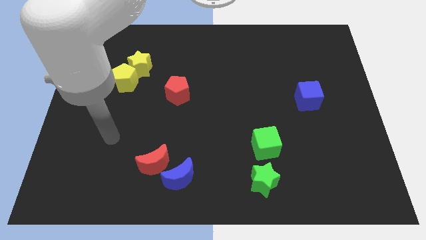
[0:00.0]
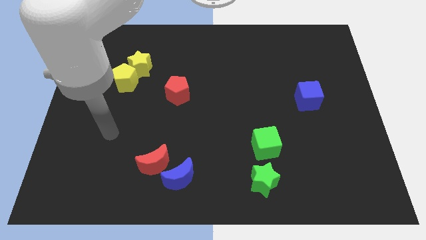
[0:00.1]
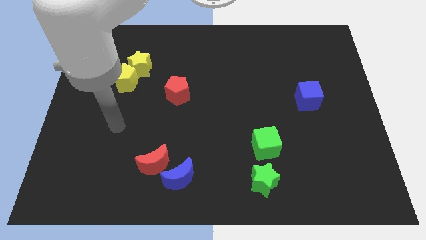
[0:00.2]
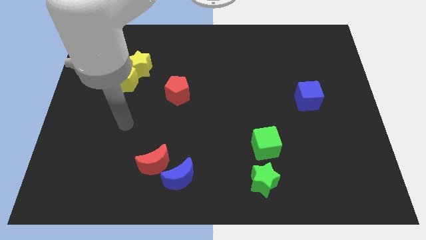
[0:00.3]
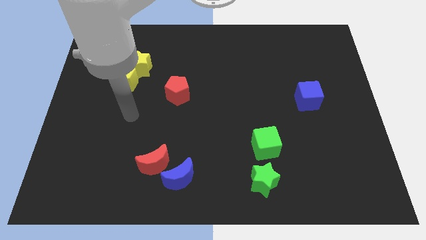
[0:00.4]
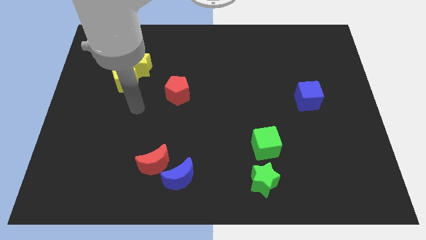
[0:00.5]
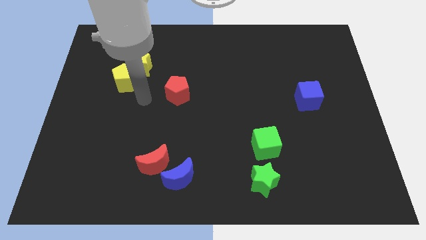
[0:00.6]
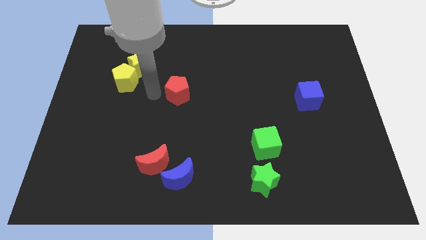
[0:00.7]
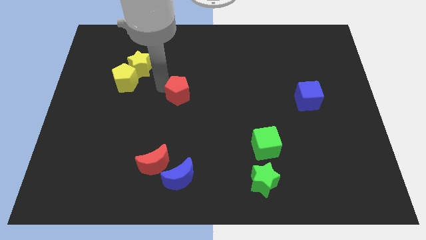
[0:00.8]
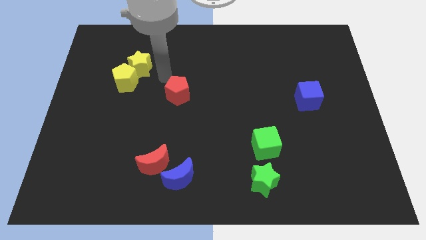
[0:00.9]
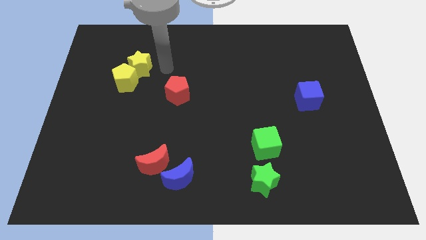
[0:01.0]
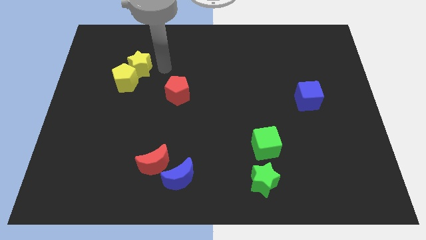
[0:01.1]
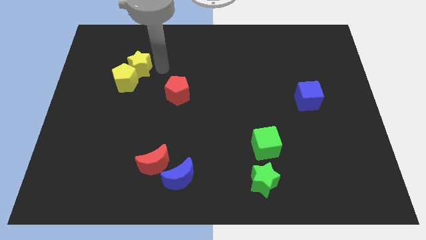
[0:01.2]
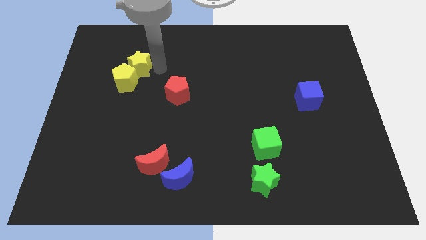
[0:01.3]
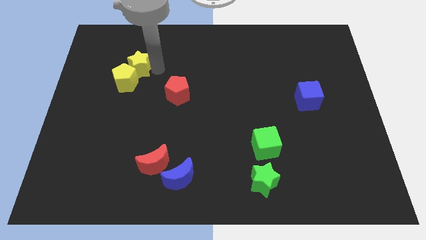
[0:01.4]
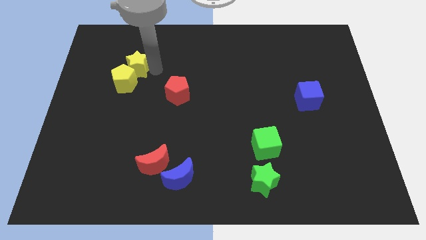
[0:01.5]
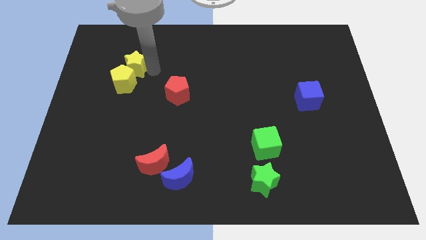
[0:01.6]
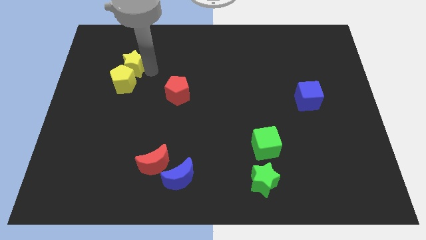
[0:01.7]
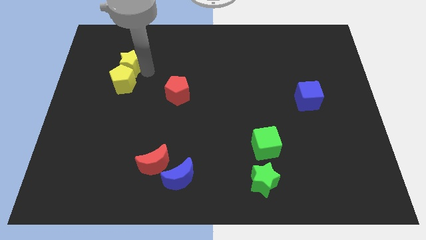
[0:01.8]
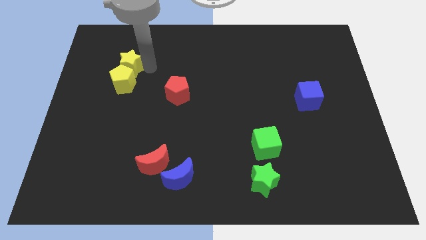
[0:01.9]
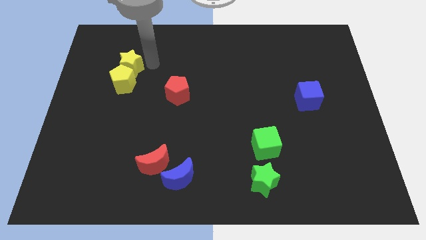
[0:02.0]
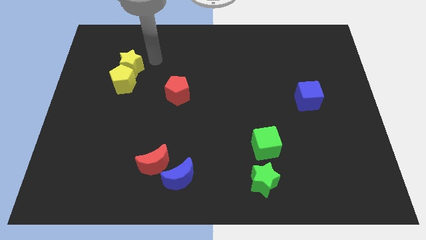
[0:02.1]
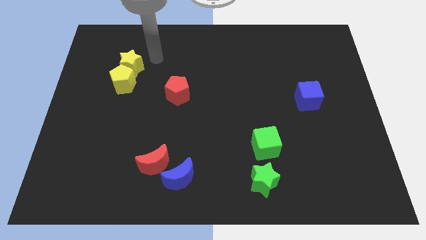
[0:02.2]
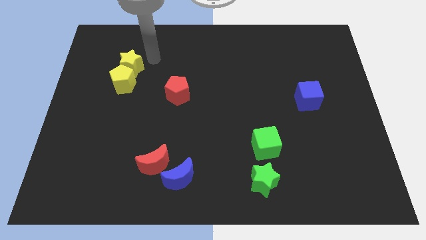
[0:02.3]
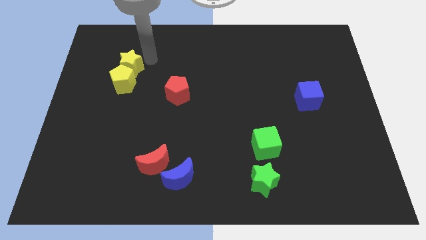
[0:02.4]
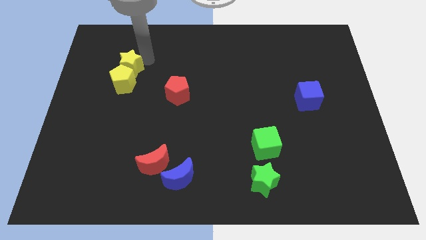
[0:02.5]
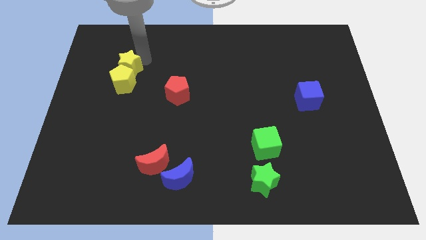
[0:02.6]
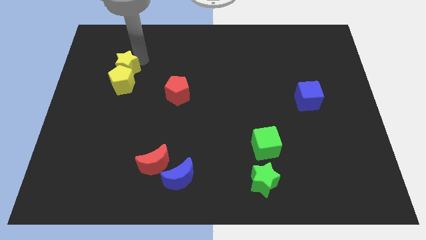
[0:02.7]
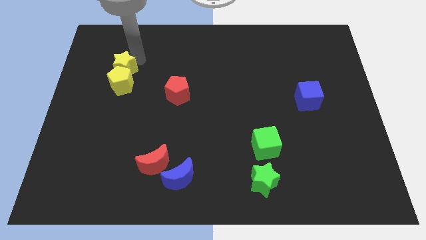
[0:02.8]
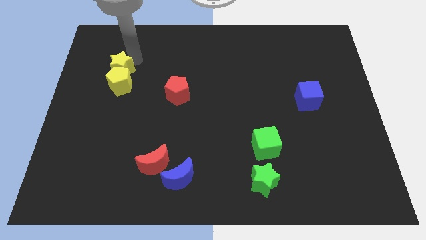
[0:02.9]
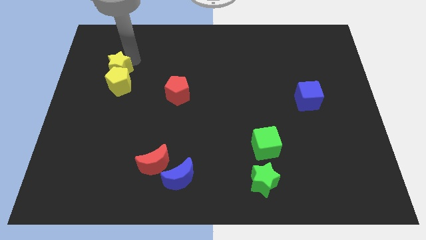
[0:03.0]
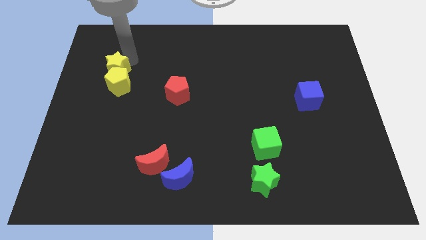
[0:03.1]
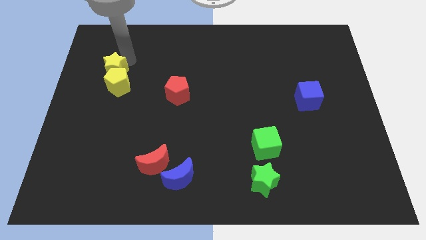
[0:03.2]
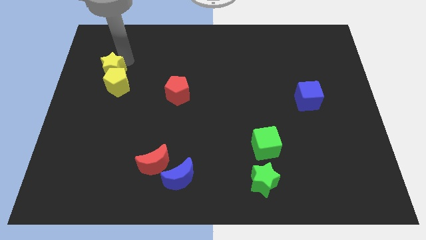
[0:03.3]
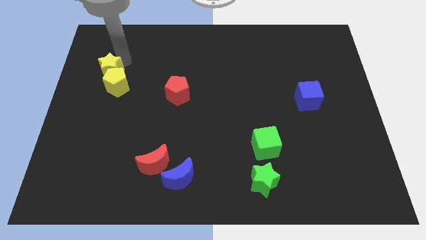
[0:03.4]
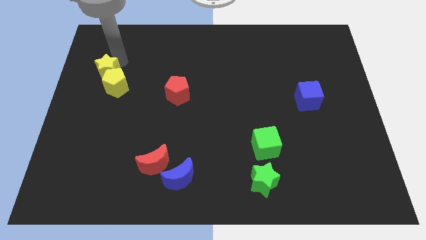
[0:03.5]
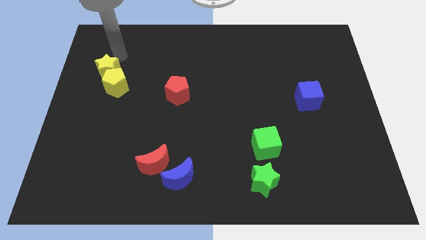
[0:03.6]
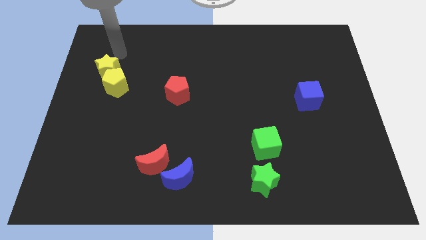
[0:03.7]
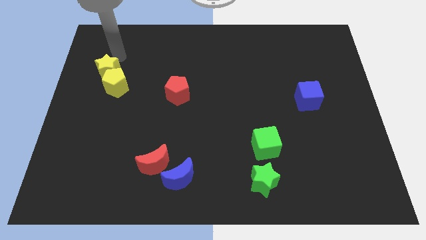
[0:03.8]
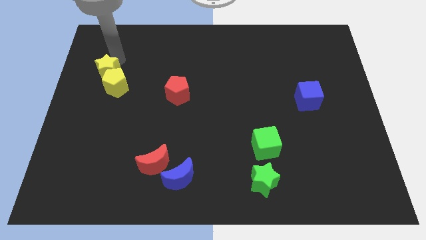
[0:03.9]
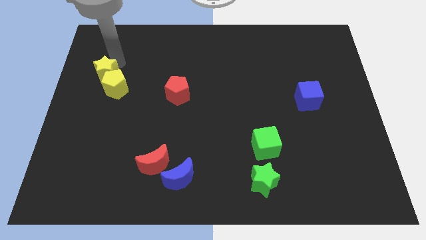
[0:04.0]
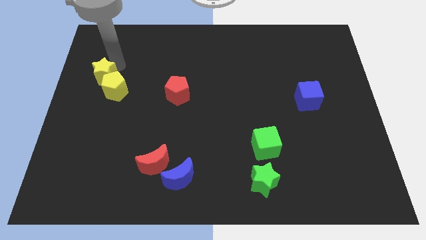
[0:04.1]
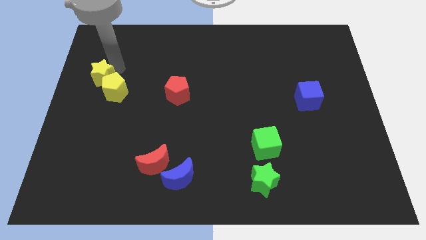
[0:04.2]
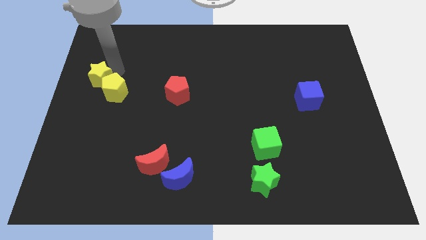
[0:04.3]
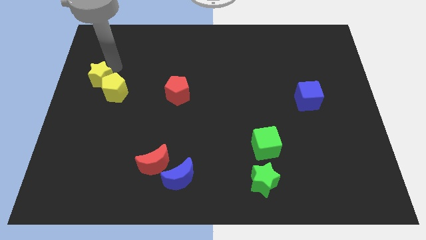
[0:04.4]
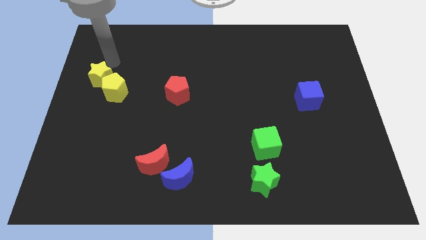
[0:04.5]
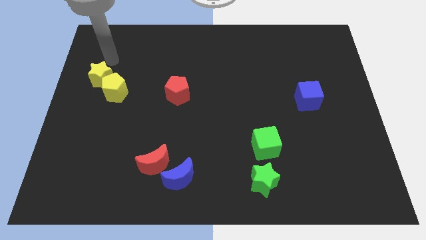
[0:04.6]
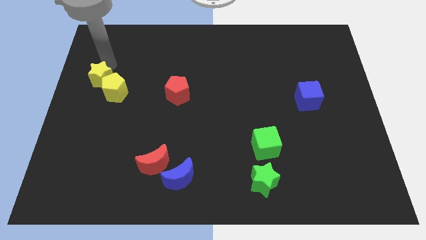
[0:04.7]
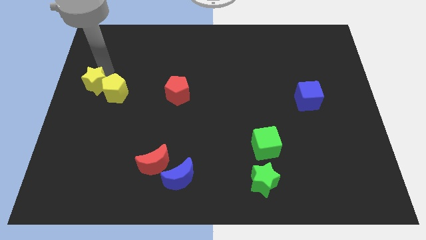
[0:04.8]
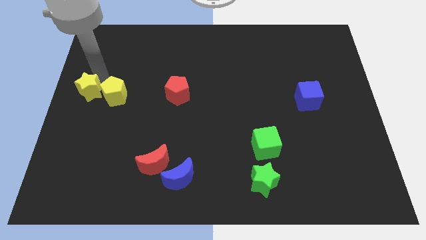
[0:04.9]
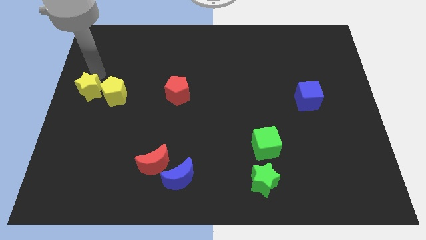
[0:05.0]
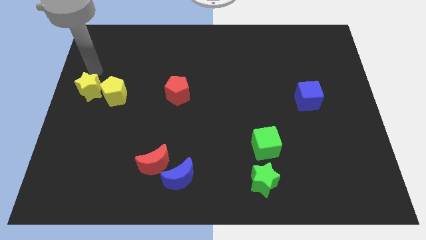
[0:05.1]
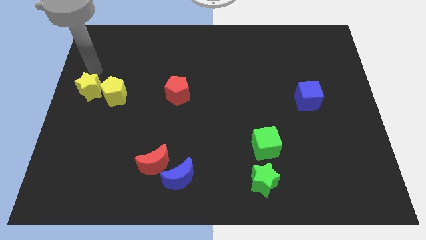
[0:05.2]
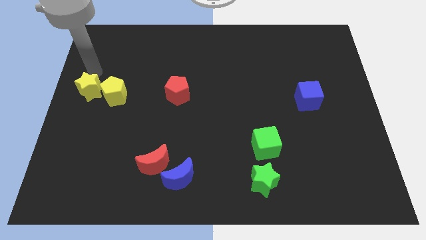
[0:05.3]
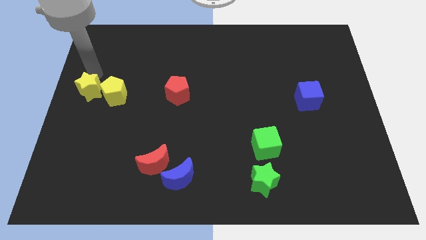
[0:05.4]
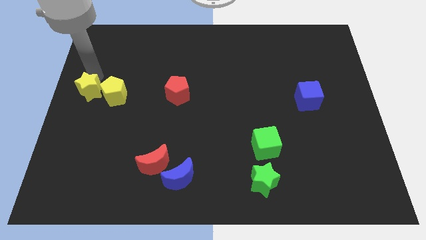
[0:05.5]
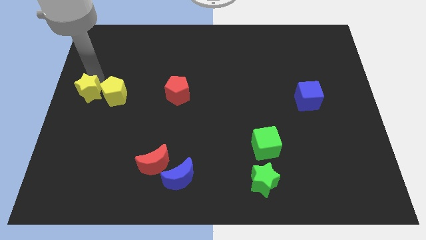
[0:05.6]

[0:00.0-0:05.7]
put the yellow star to the bottom left of the yellow pentagon

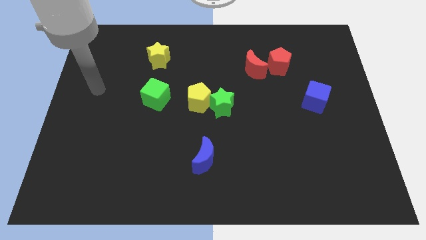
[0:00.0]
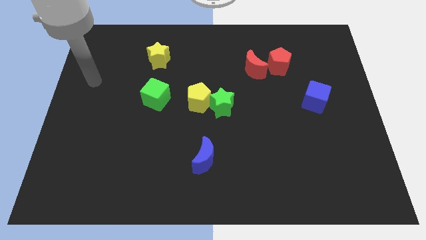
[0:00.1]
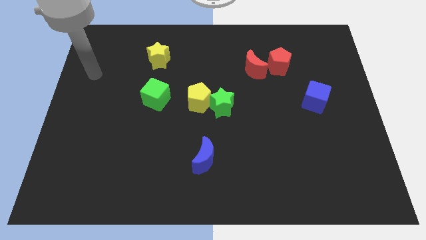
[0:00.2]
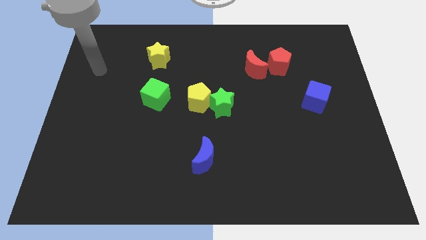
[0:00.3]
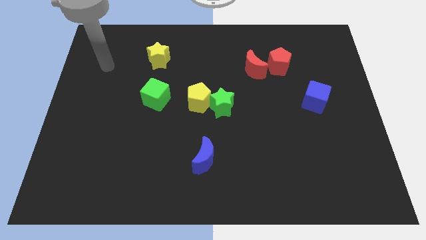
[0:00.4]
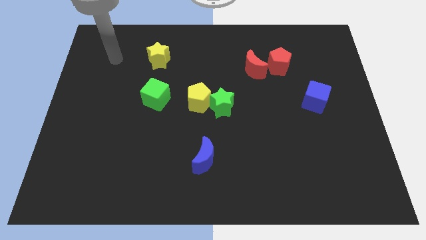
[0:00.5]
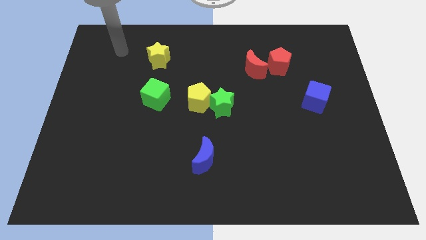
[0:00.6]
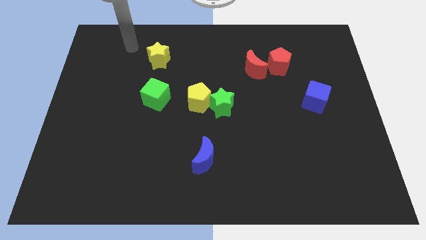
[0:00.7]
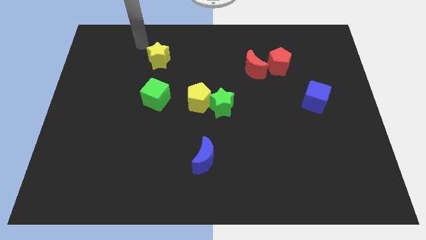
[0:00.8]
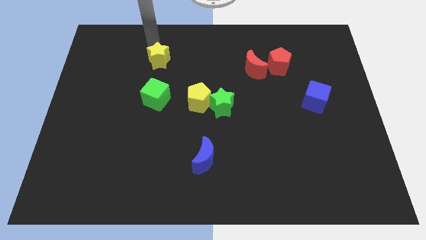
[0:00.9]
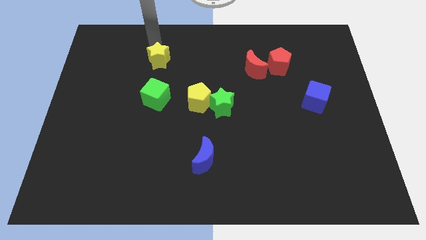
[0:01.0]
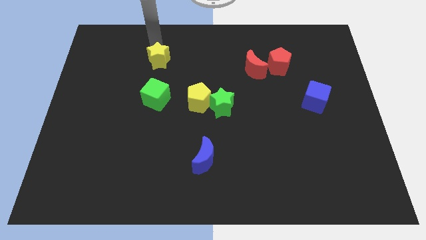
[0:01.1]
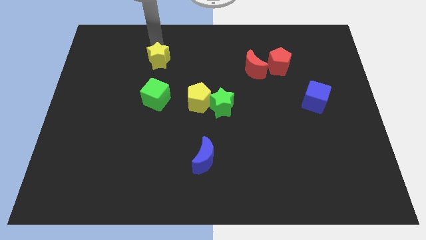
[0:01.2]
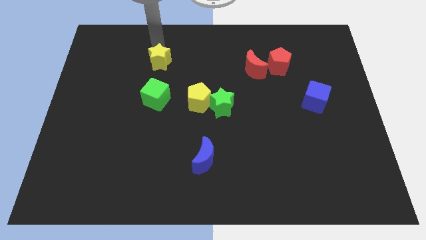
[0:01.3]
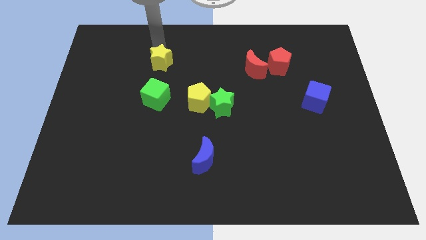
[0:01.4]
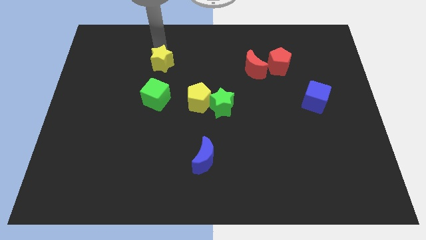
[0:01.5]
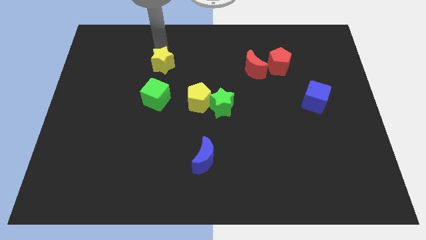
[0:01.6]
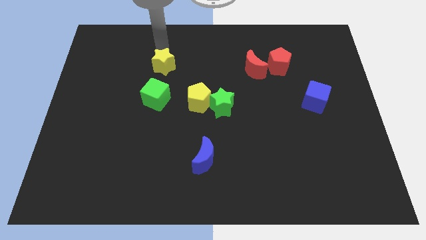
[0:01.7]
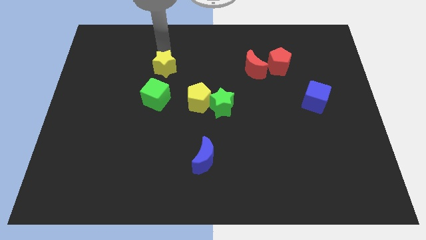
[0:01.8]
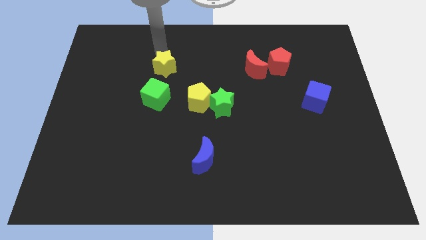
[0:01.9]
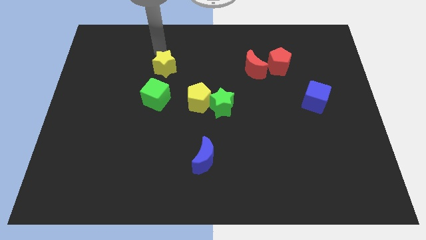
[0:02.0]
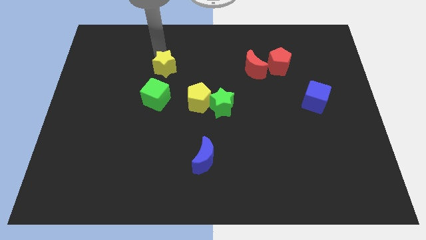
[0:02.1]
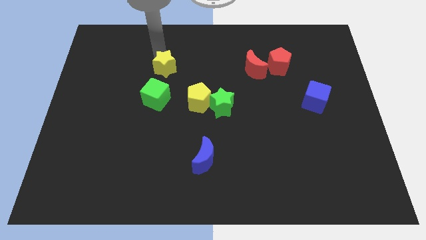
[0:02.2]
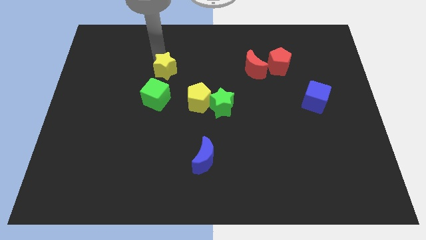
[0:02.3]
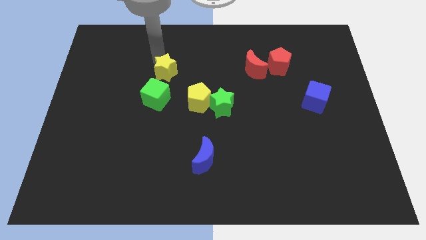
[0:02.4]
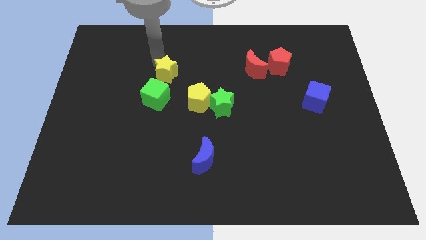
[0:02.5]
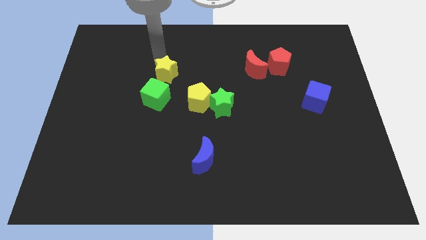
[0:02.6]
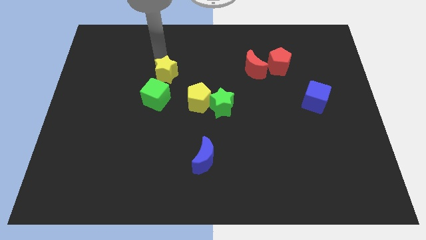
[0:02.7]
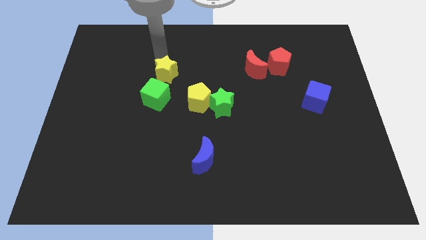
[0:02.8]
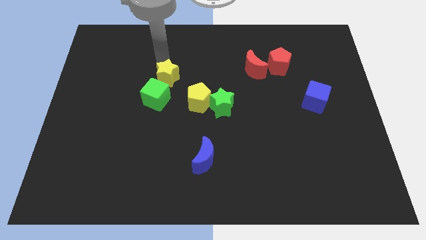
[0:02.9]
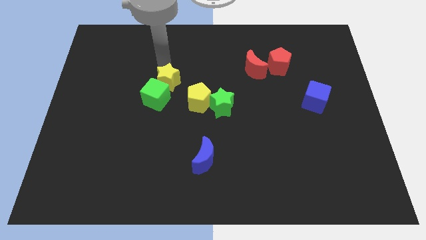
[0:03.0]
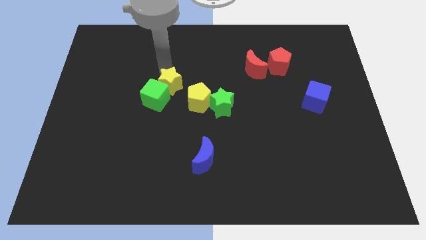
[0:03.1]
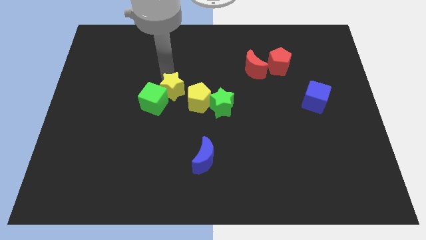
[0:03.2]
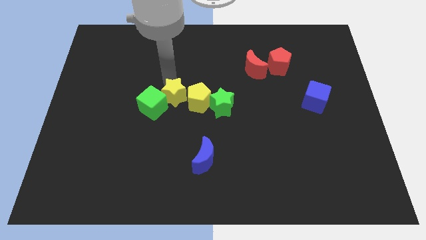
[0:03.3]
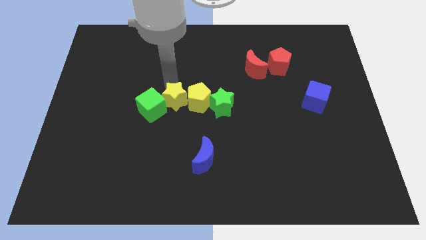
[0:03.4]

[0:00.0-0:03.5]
move the yellow star to the bottom left of the yellow pentagon
